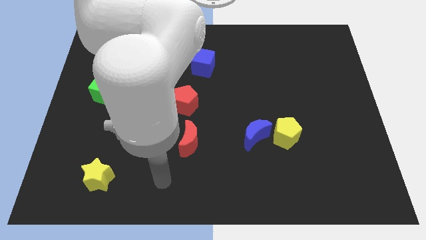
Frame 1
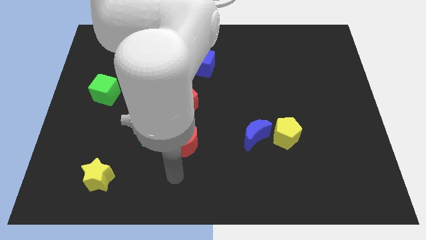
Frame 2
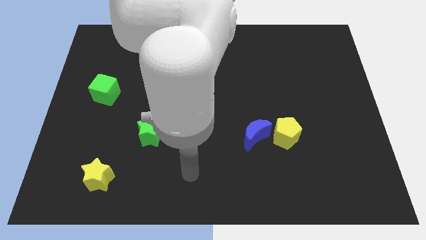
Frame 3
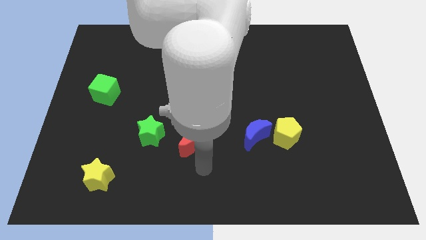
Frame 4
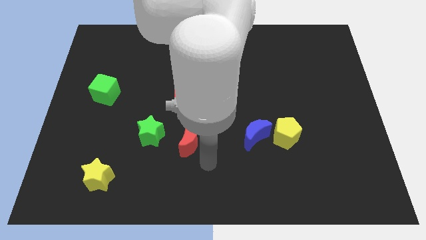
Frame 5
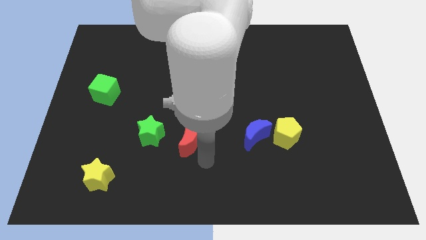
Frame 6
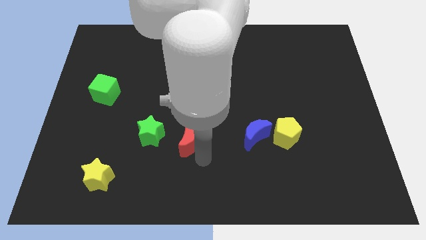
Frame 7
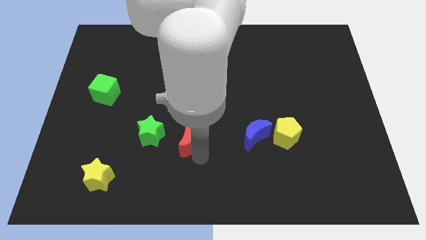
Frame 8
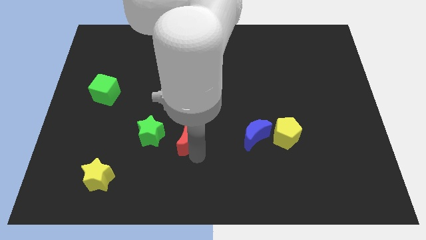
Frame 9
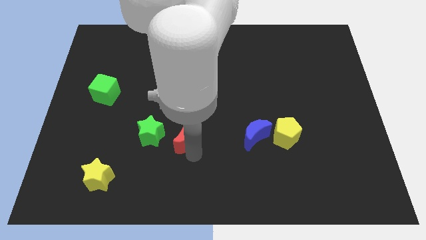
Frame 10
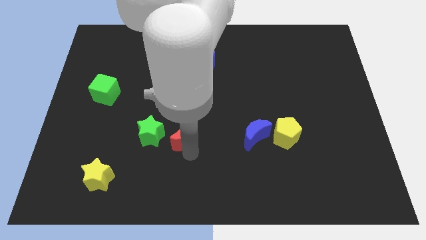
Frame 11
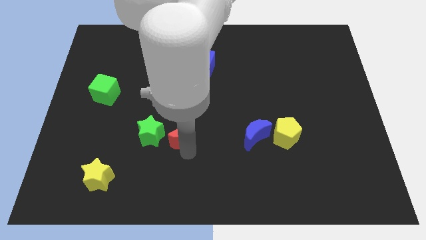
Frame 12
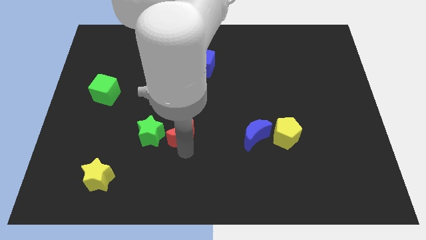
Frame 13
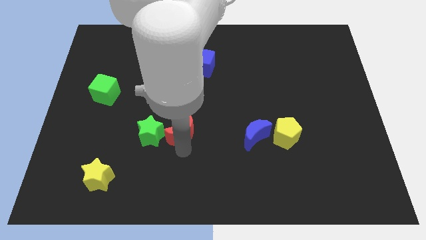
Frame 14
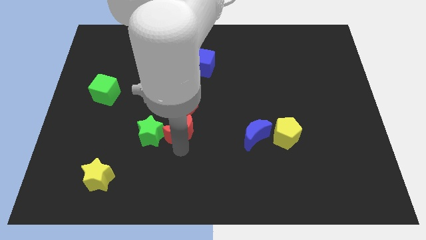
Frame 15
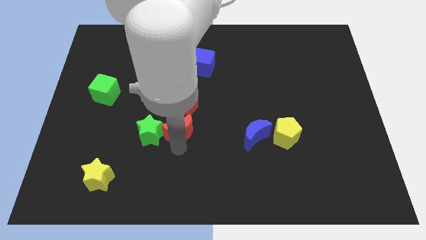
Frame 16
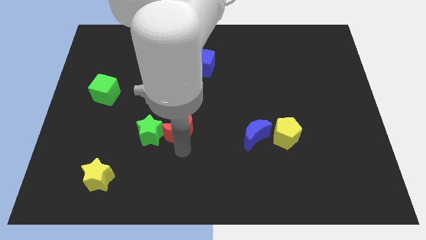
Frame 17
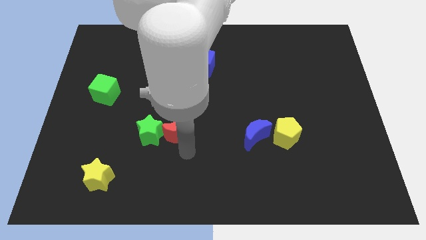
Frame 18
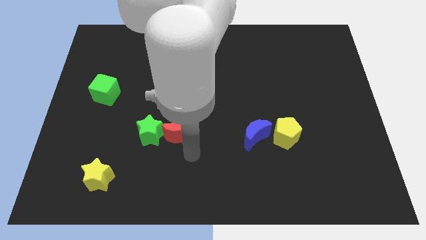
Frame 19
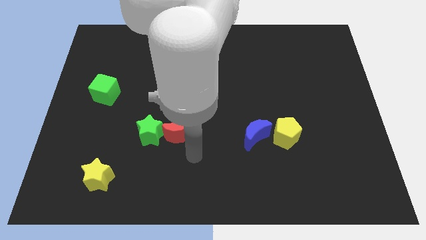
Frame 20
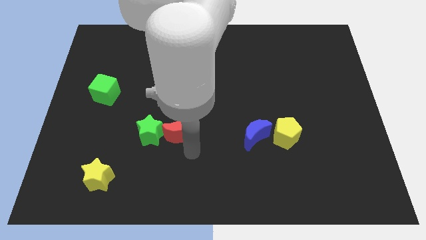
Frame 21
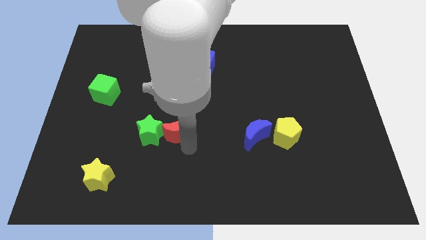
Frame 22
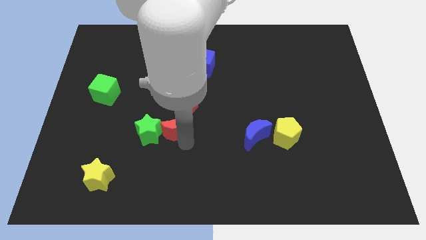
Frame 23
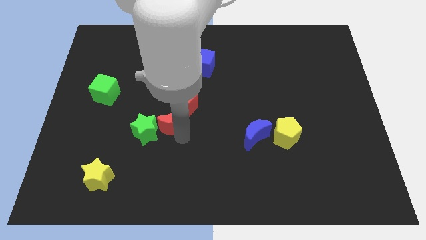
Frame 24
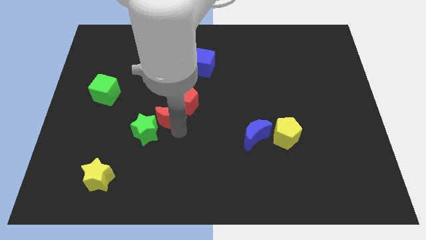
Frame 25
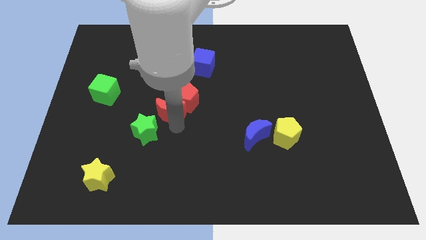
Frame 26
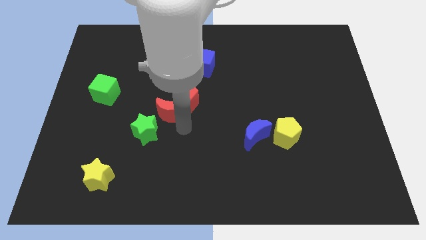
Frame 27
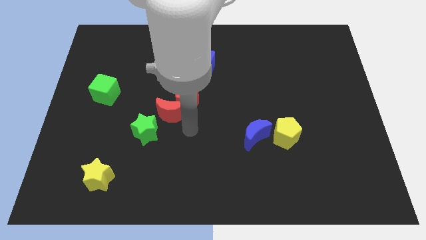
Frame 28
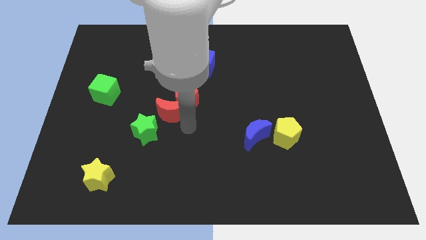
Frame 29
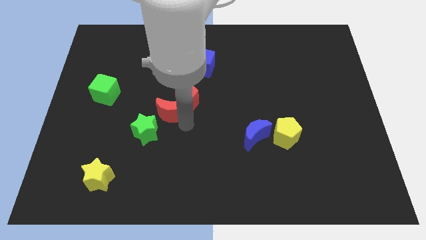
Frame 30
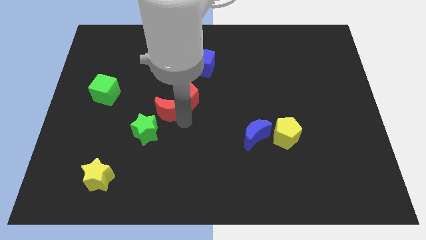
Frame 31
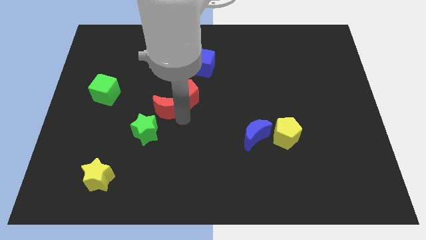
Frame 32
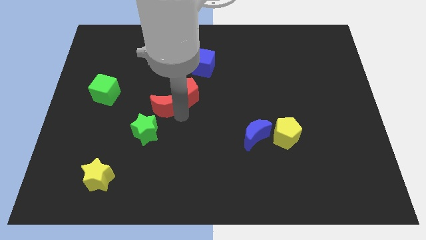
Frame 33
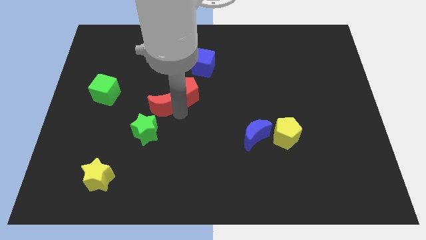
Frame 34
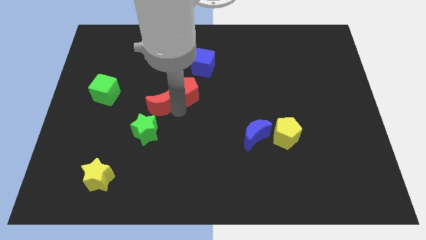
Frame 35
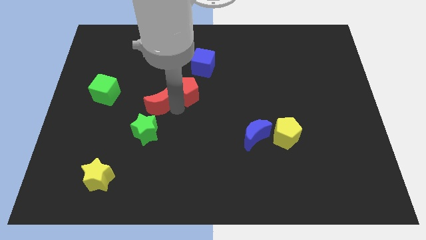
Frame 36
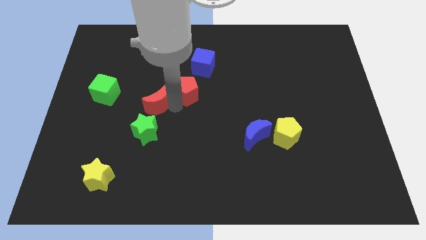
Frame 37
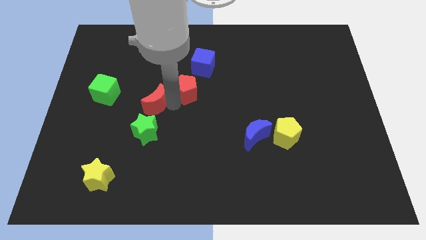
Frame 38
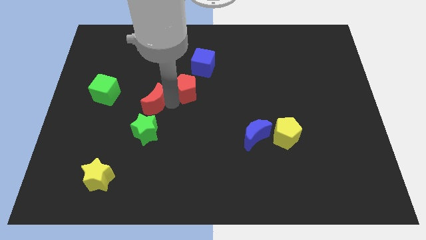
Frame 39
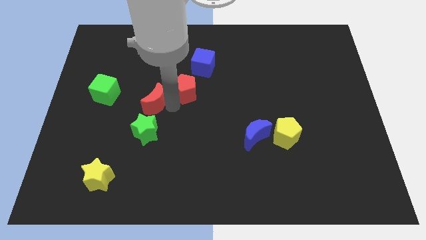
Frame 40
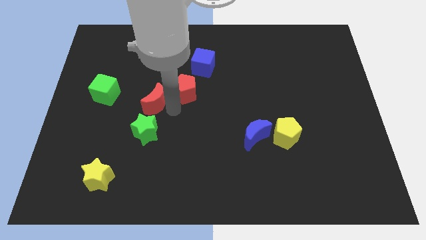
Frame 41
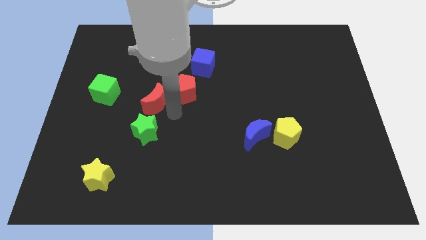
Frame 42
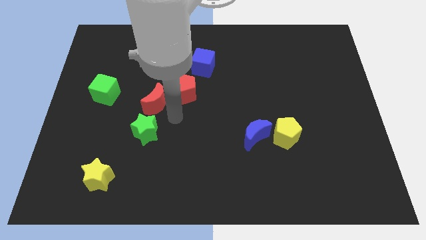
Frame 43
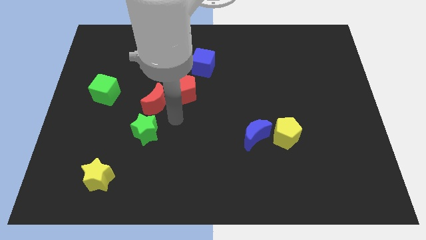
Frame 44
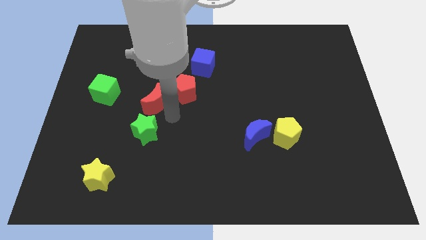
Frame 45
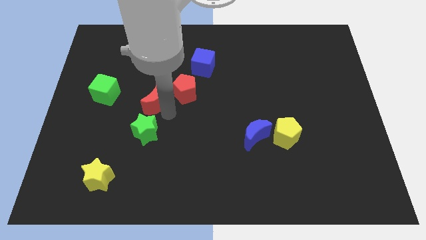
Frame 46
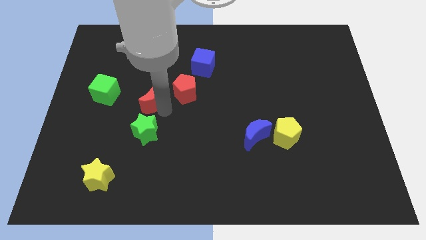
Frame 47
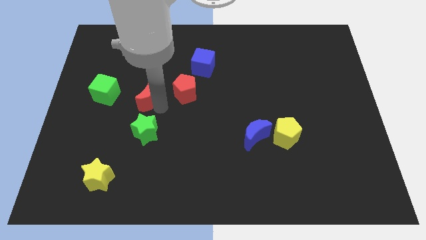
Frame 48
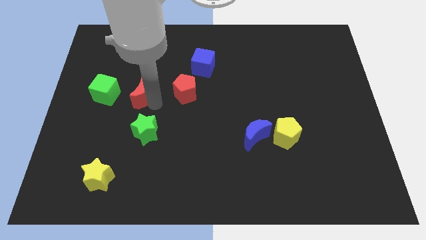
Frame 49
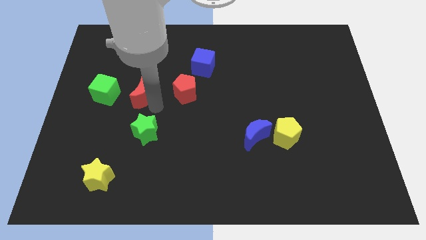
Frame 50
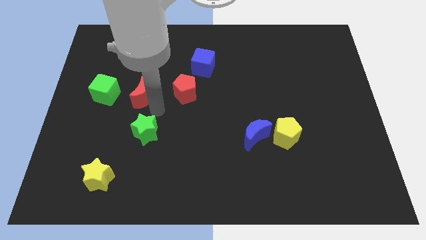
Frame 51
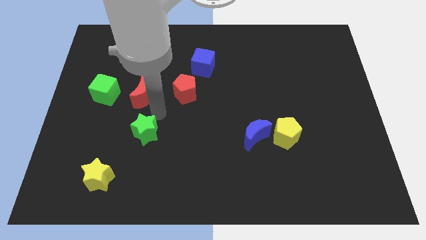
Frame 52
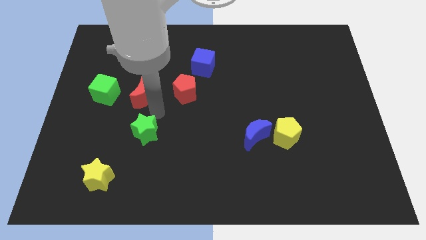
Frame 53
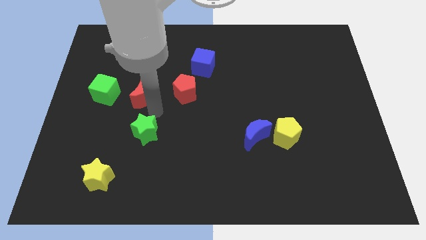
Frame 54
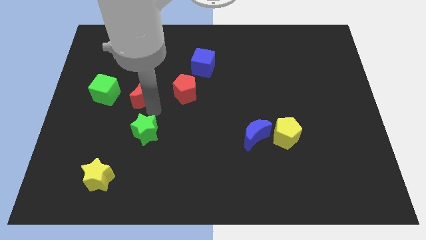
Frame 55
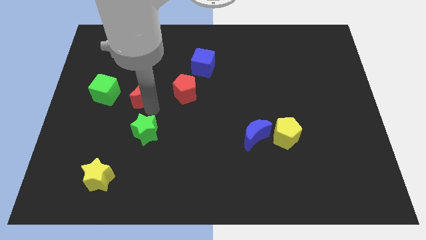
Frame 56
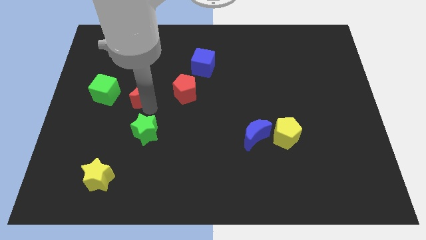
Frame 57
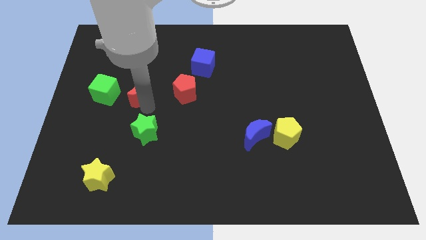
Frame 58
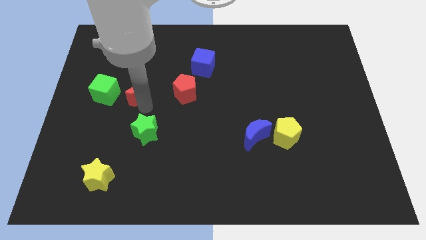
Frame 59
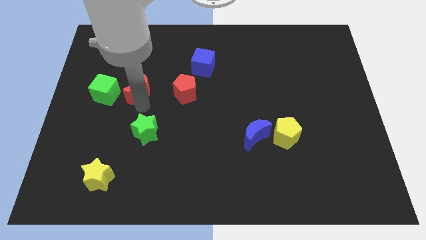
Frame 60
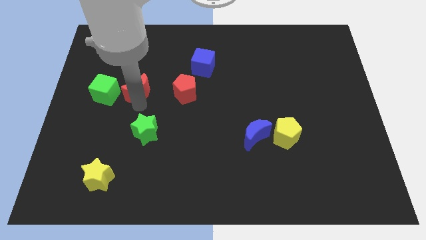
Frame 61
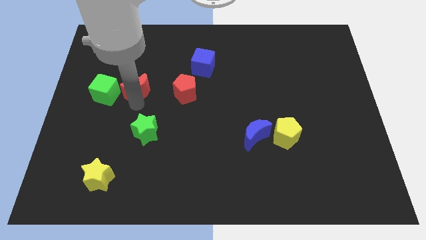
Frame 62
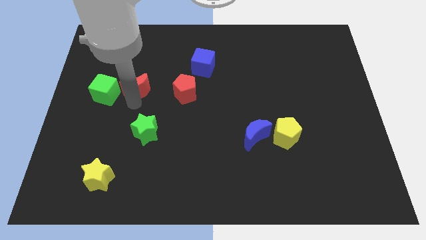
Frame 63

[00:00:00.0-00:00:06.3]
move the red moon diagonally upwards and left

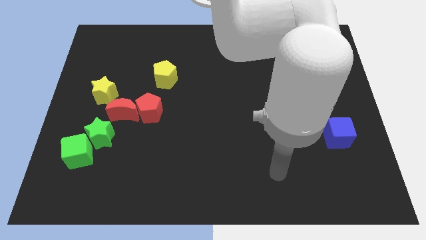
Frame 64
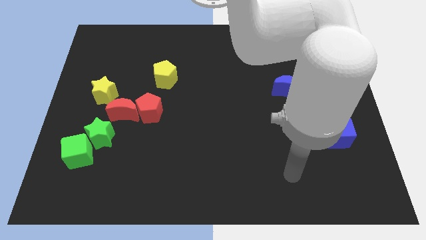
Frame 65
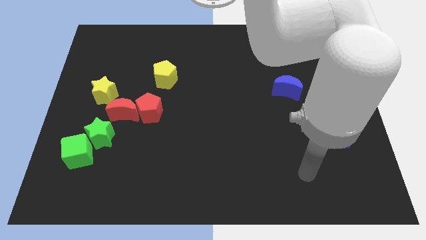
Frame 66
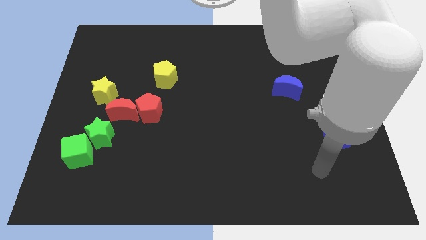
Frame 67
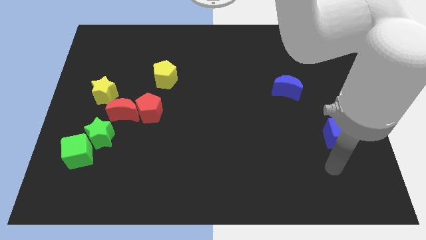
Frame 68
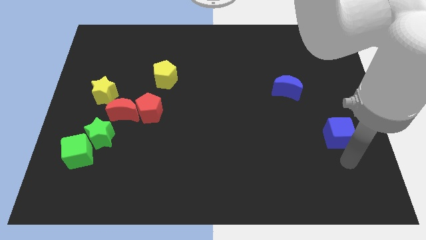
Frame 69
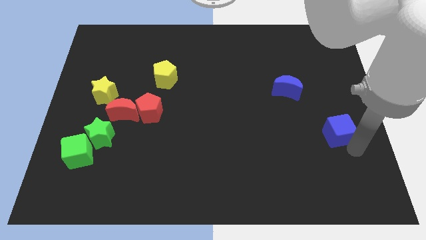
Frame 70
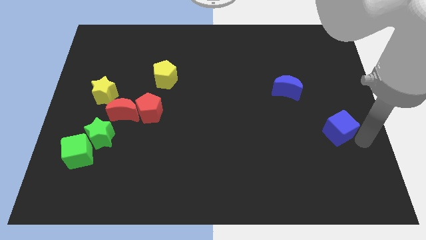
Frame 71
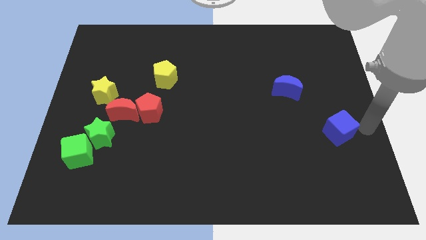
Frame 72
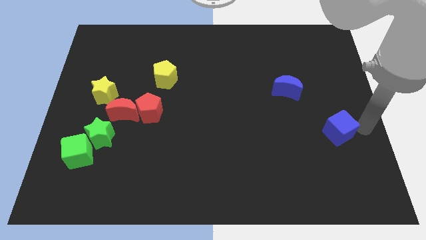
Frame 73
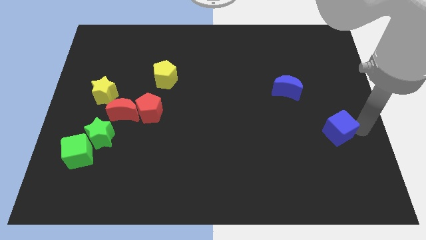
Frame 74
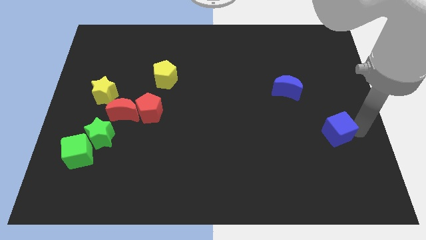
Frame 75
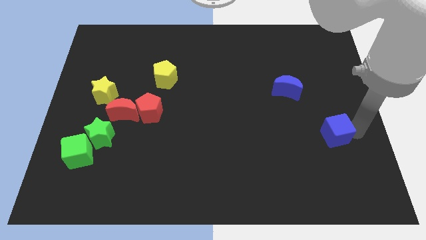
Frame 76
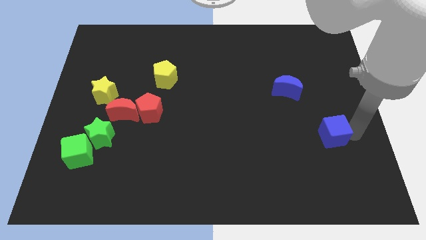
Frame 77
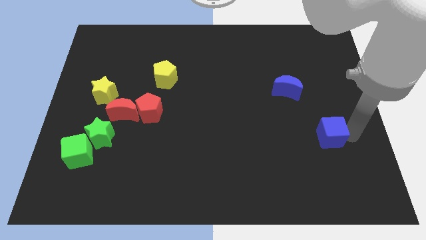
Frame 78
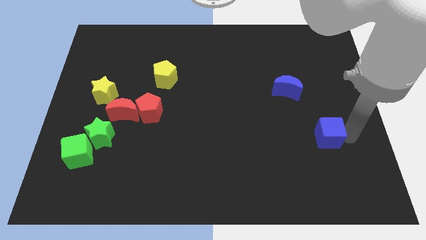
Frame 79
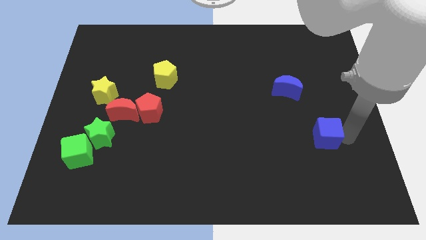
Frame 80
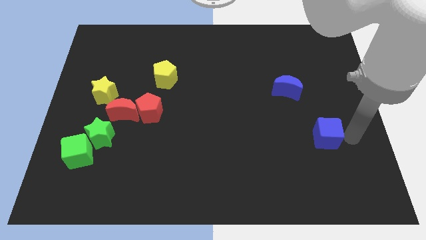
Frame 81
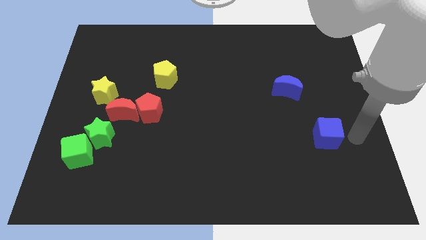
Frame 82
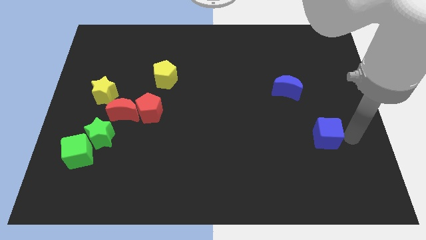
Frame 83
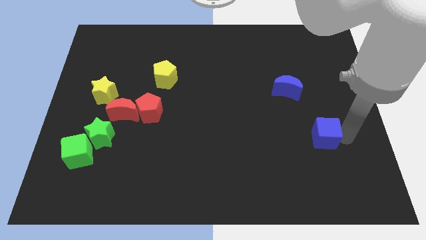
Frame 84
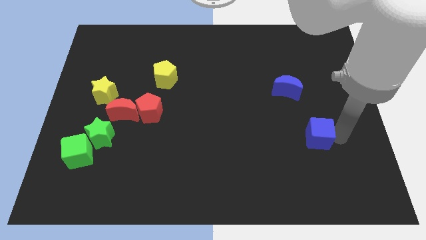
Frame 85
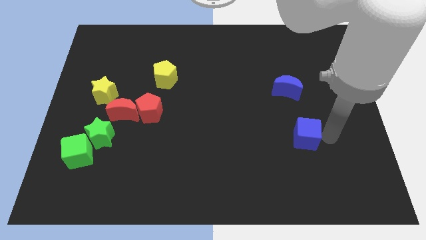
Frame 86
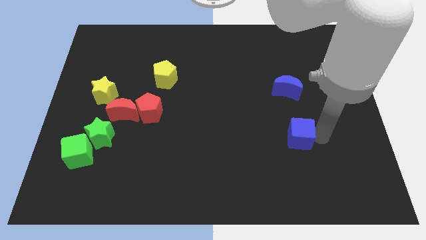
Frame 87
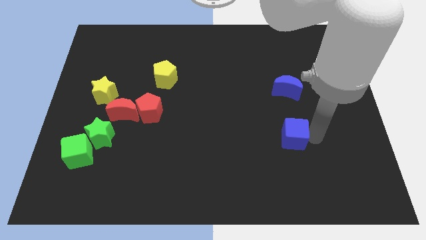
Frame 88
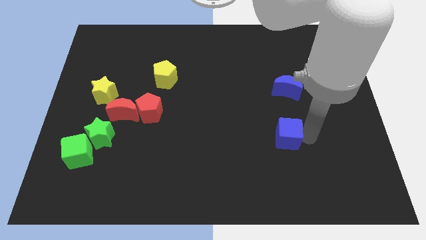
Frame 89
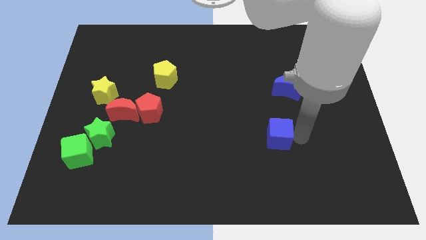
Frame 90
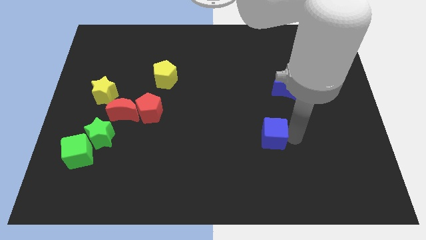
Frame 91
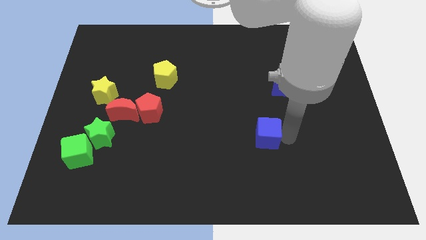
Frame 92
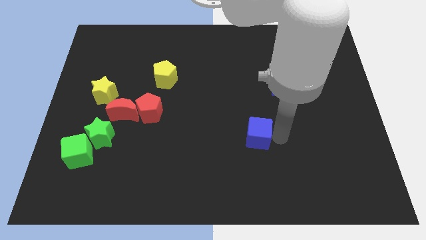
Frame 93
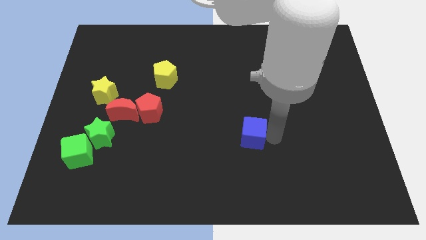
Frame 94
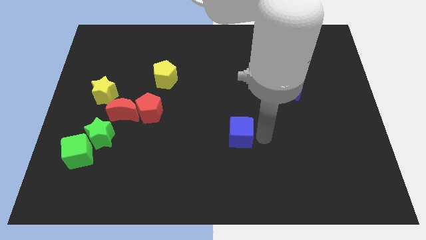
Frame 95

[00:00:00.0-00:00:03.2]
slide the blue cube to the left
